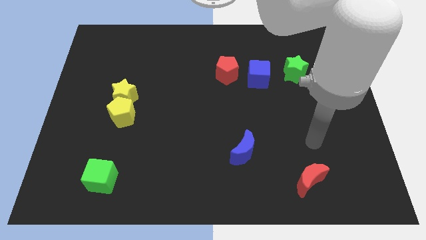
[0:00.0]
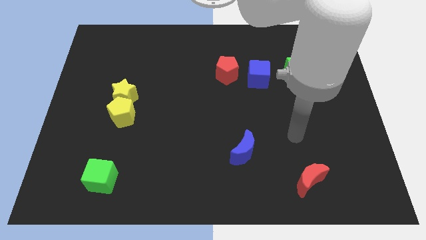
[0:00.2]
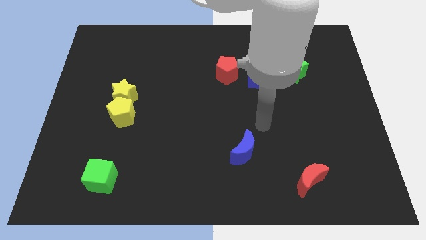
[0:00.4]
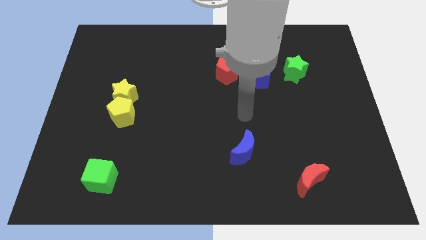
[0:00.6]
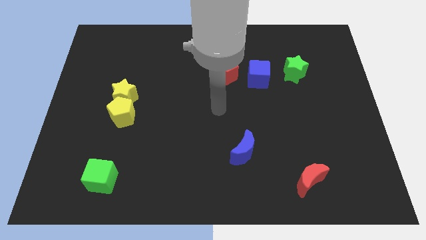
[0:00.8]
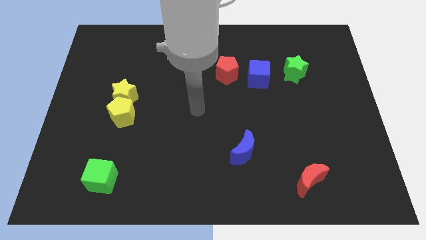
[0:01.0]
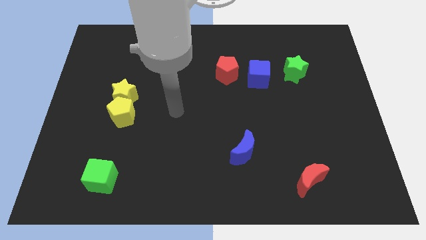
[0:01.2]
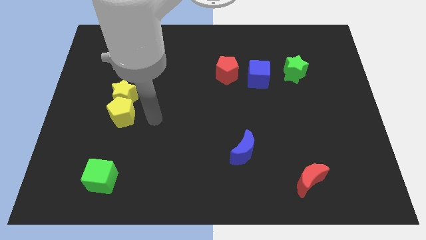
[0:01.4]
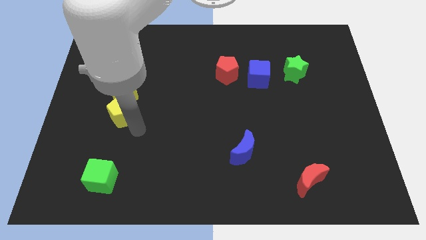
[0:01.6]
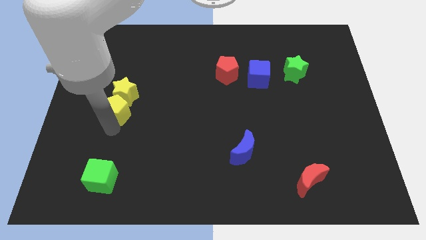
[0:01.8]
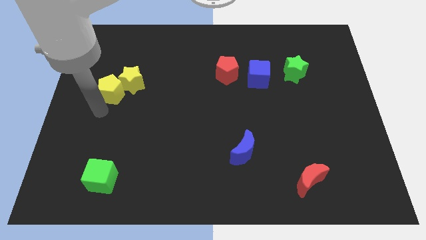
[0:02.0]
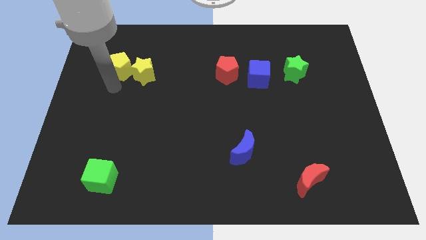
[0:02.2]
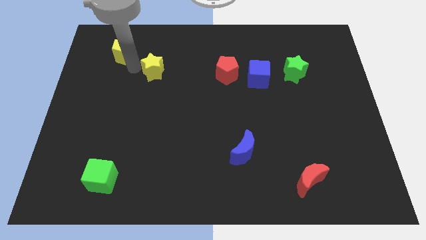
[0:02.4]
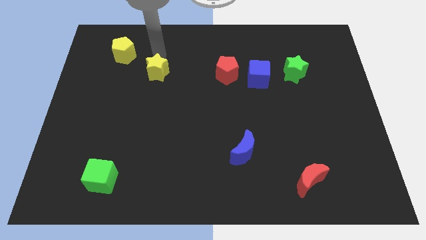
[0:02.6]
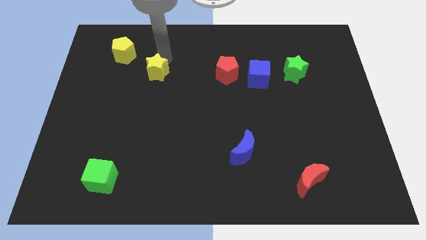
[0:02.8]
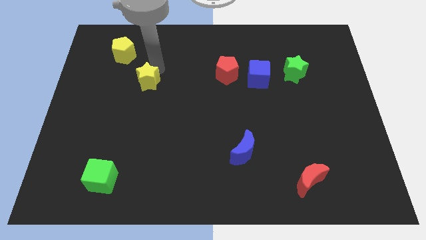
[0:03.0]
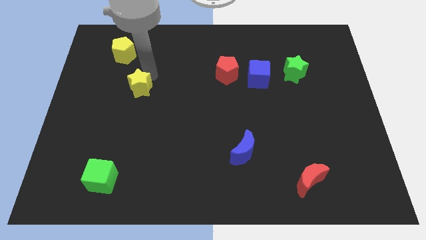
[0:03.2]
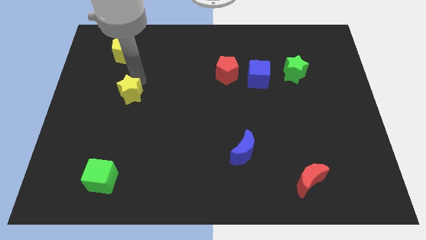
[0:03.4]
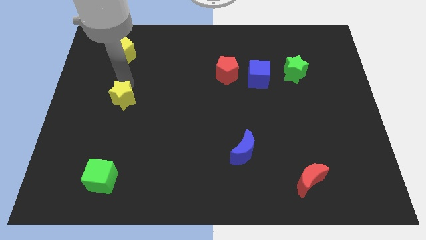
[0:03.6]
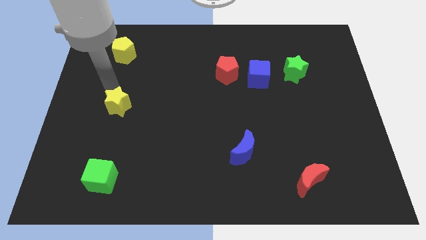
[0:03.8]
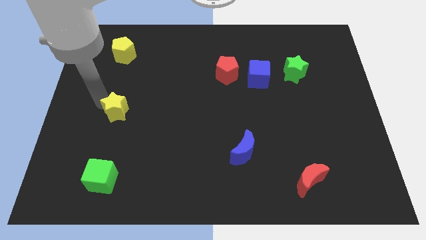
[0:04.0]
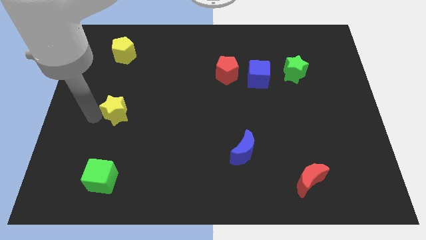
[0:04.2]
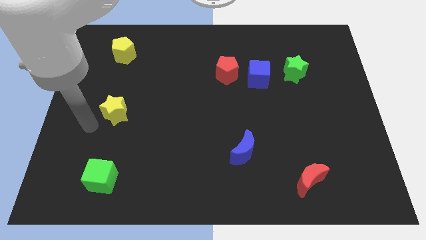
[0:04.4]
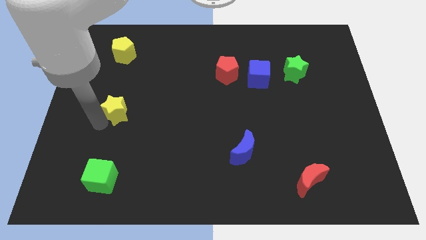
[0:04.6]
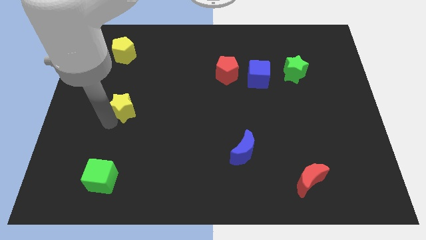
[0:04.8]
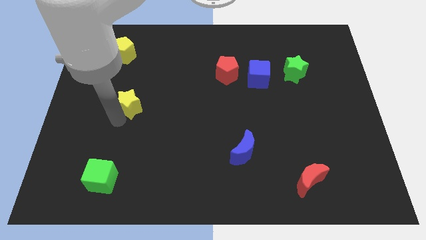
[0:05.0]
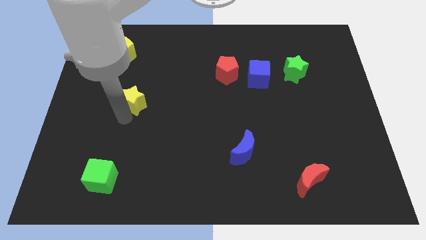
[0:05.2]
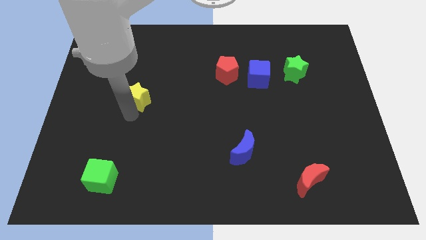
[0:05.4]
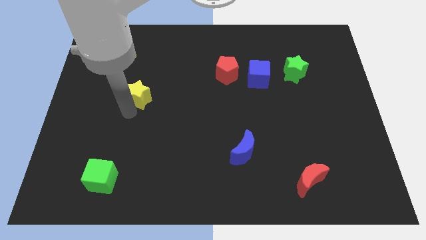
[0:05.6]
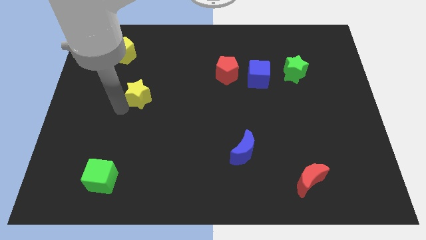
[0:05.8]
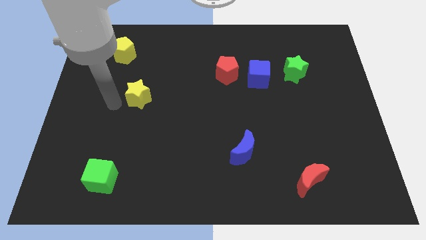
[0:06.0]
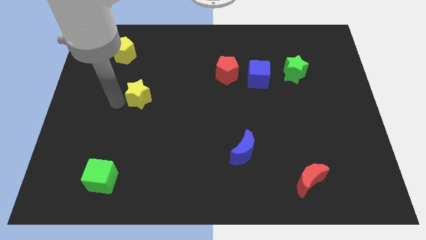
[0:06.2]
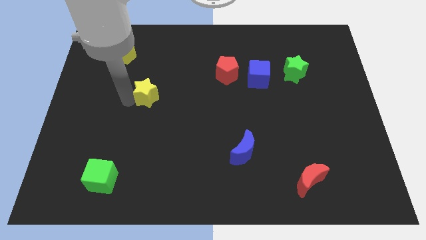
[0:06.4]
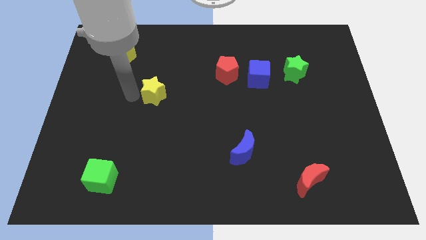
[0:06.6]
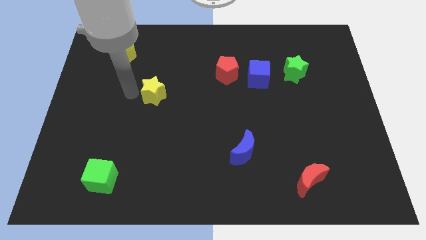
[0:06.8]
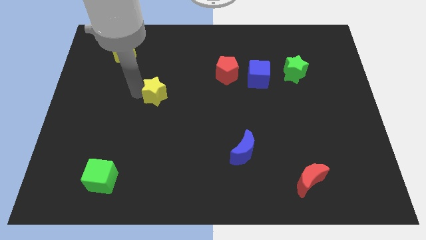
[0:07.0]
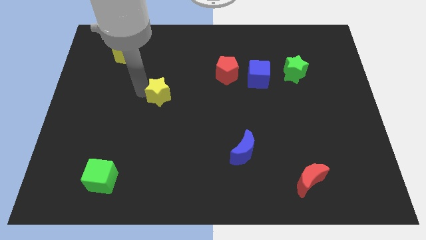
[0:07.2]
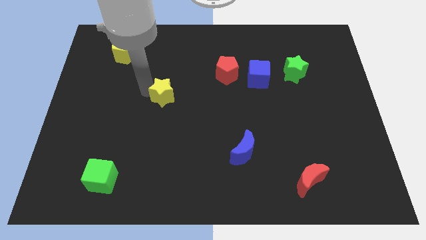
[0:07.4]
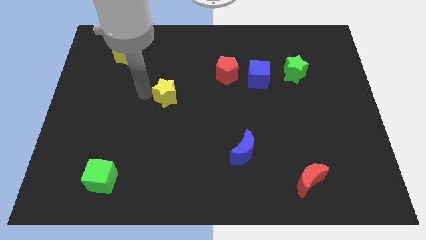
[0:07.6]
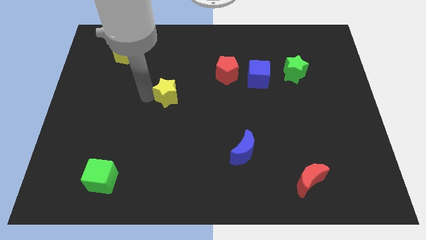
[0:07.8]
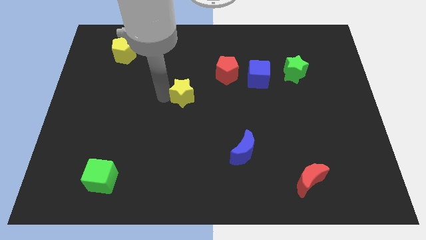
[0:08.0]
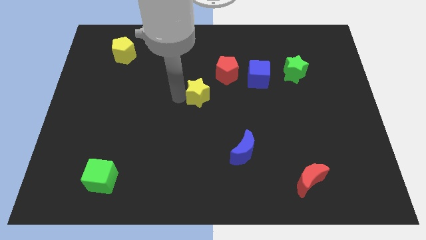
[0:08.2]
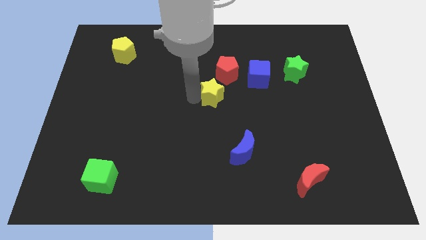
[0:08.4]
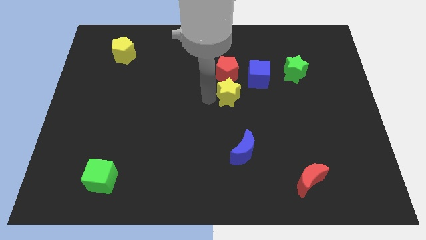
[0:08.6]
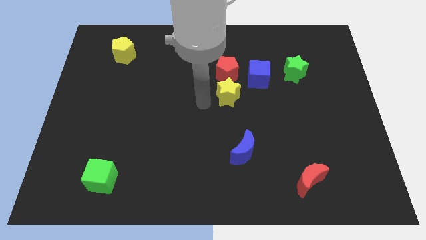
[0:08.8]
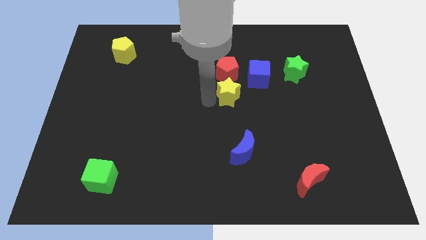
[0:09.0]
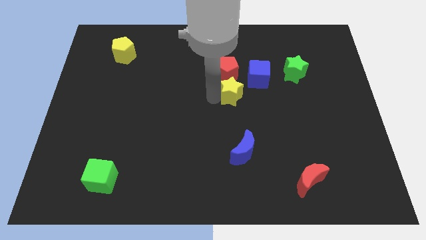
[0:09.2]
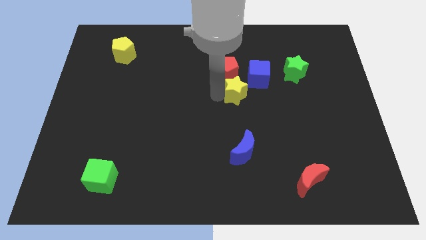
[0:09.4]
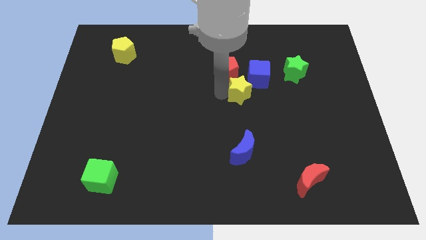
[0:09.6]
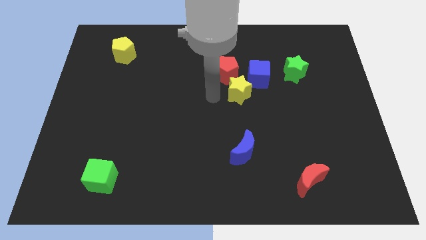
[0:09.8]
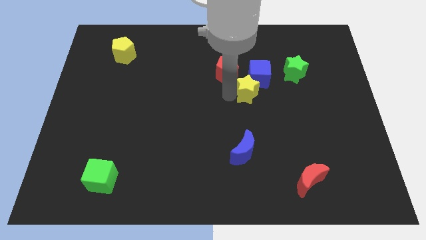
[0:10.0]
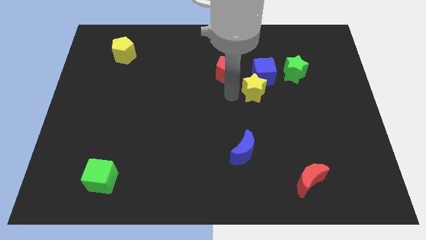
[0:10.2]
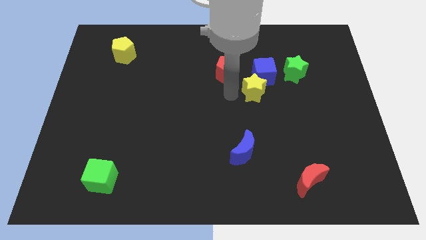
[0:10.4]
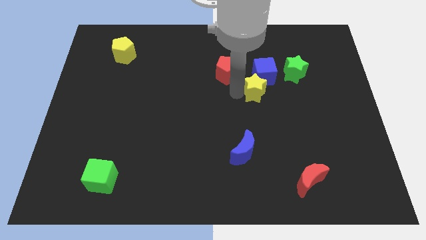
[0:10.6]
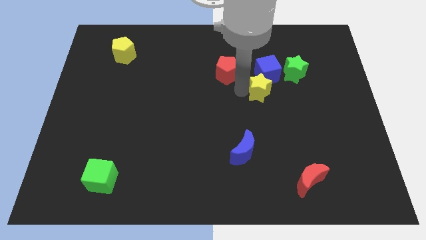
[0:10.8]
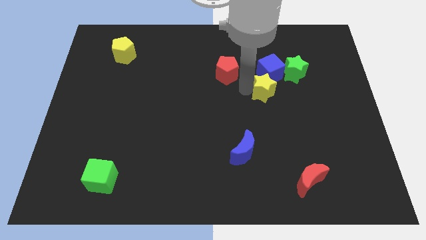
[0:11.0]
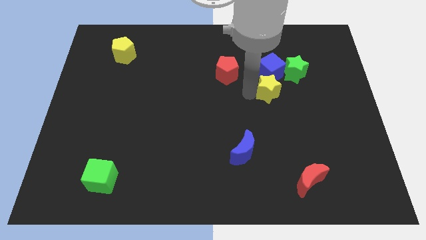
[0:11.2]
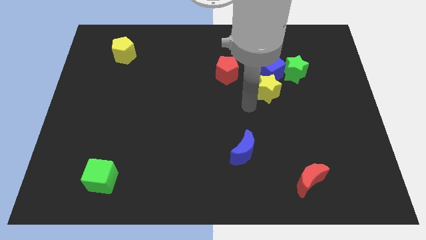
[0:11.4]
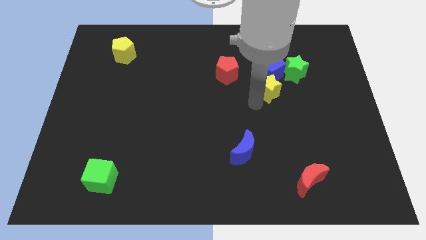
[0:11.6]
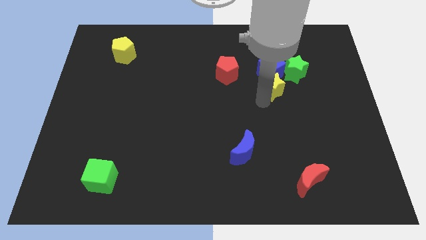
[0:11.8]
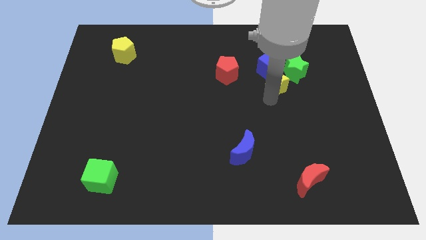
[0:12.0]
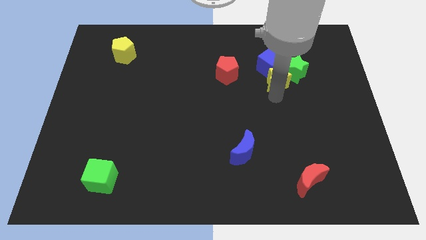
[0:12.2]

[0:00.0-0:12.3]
push the yellow star to the green star

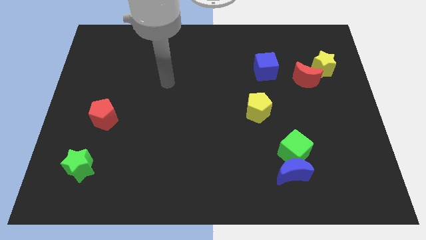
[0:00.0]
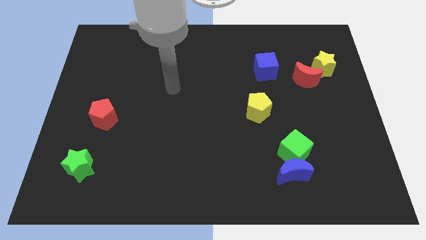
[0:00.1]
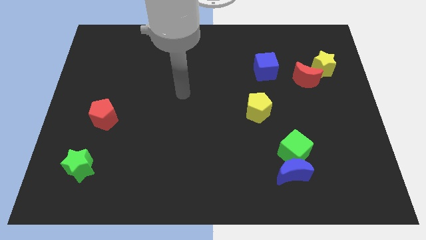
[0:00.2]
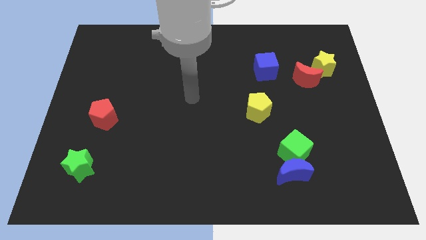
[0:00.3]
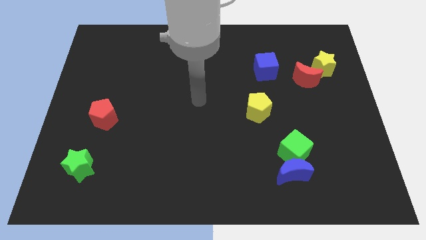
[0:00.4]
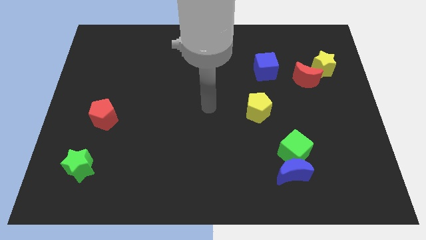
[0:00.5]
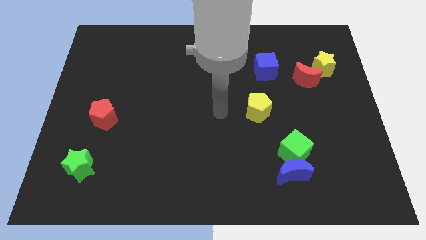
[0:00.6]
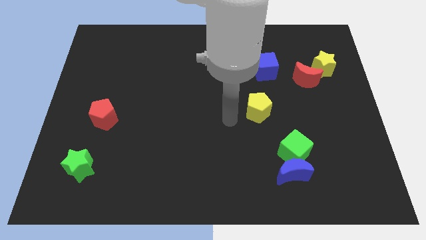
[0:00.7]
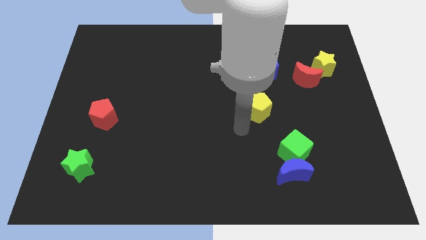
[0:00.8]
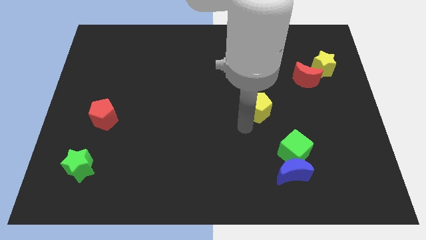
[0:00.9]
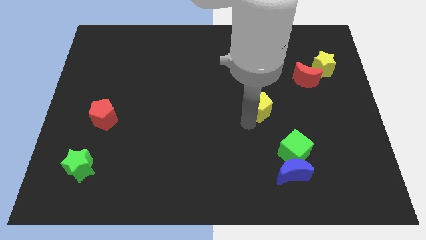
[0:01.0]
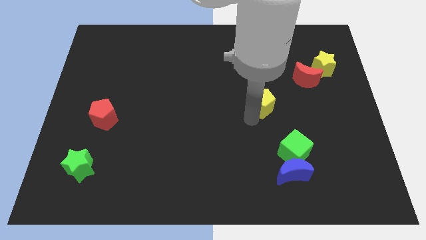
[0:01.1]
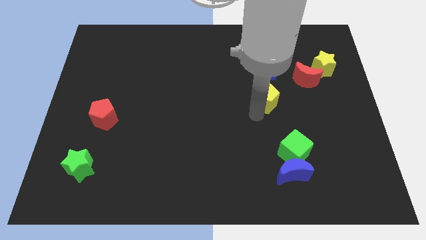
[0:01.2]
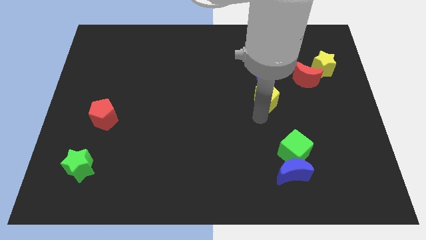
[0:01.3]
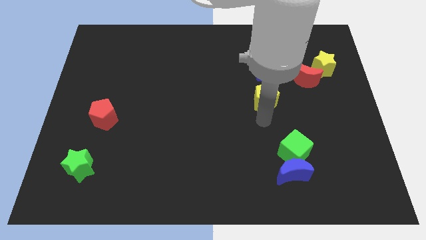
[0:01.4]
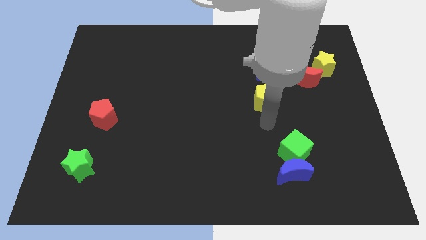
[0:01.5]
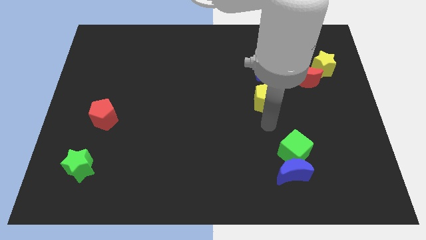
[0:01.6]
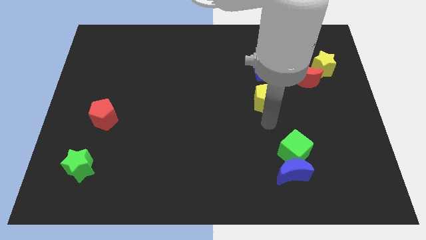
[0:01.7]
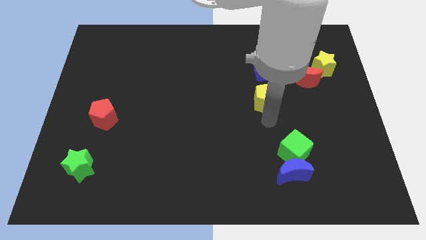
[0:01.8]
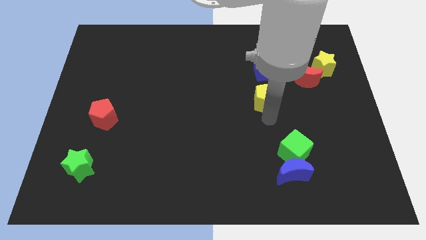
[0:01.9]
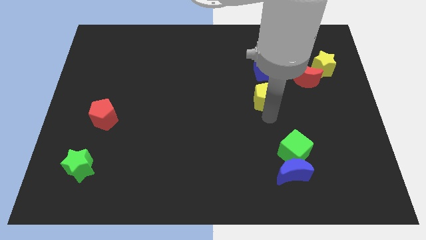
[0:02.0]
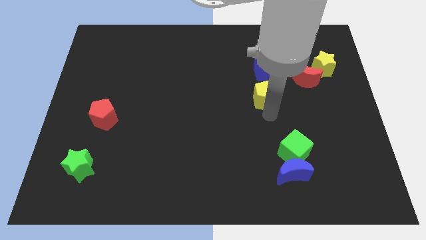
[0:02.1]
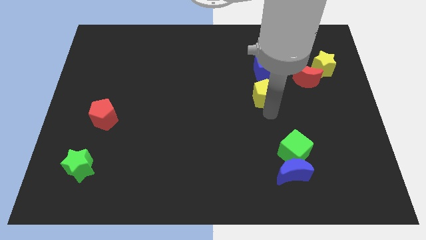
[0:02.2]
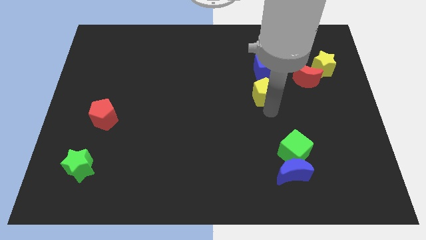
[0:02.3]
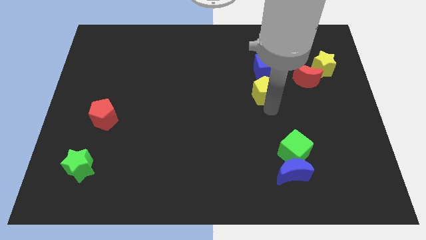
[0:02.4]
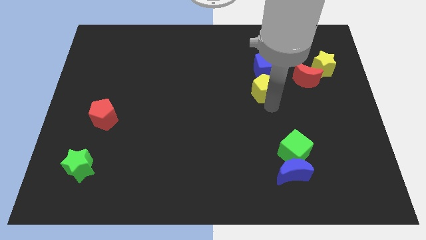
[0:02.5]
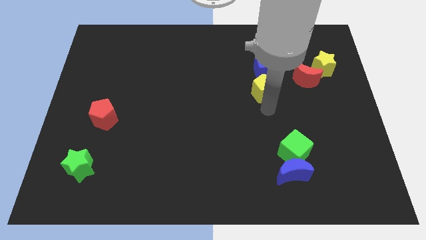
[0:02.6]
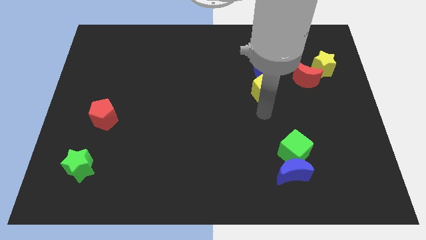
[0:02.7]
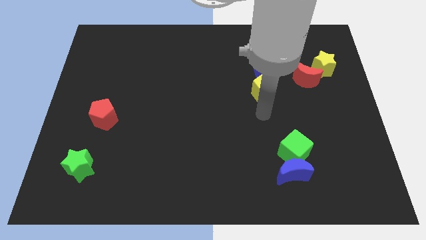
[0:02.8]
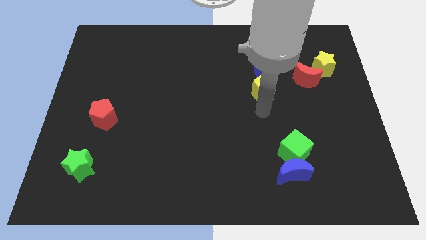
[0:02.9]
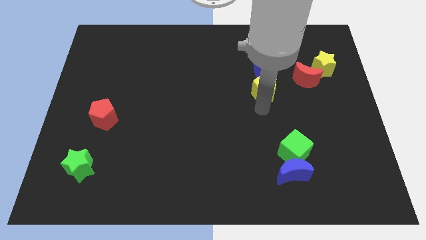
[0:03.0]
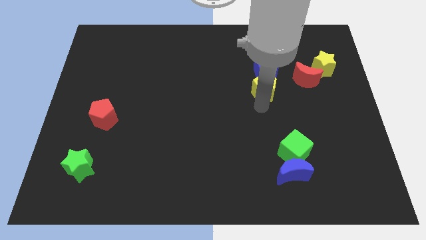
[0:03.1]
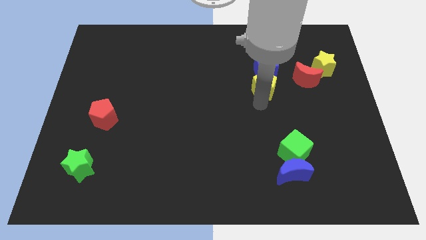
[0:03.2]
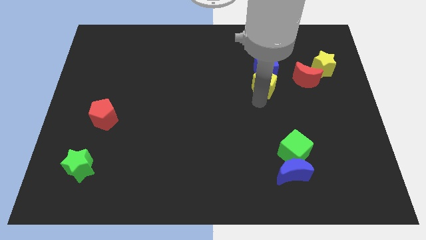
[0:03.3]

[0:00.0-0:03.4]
slide the yellow pentagon to the blue cube
